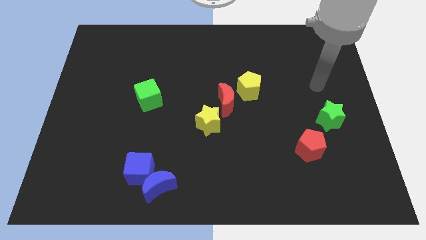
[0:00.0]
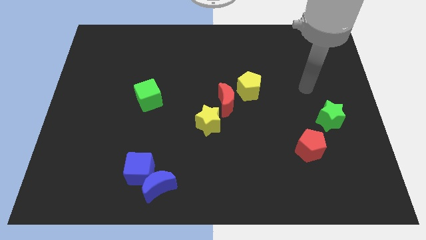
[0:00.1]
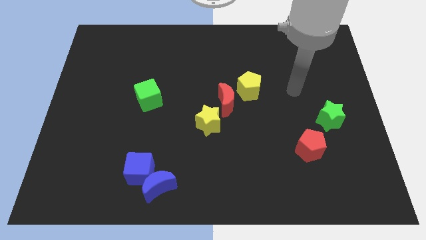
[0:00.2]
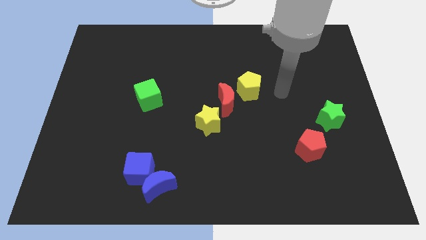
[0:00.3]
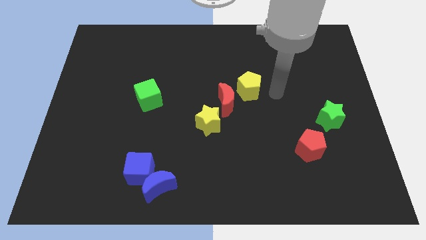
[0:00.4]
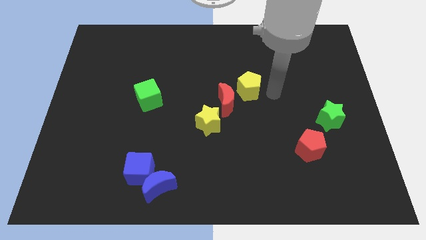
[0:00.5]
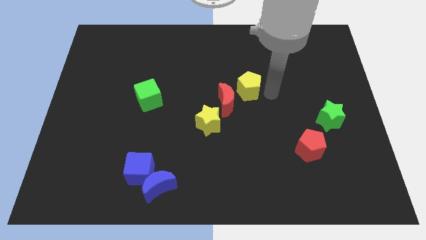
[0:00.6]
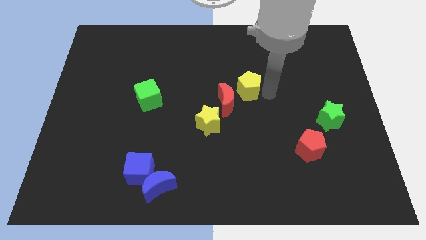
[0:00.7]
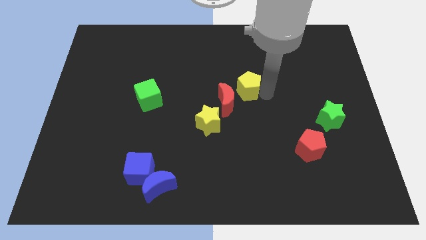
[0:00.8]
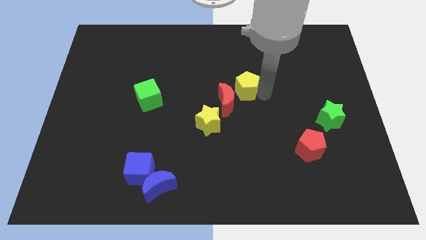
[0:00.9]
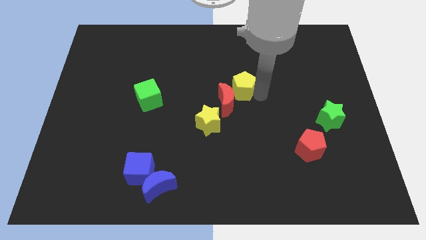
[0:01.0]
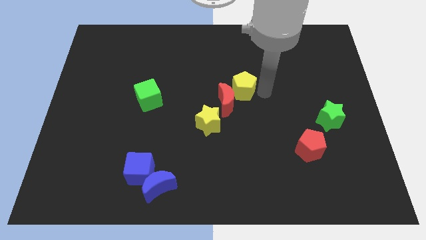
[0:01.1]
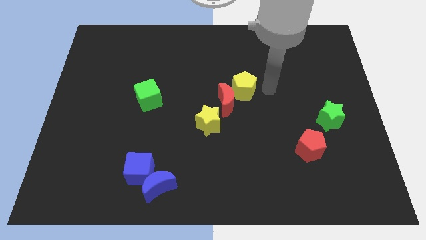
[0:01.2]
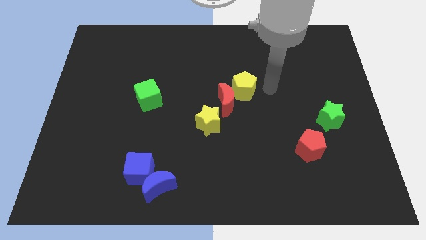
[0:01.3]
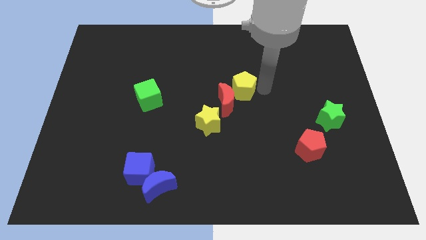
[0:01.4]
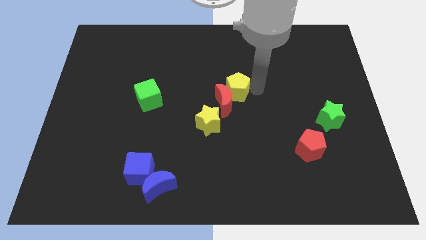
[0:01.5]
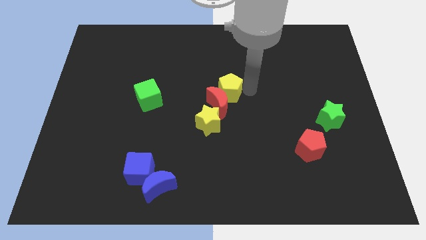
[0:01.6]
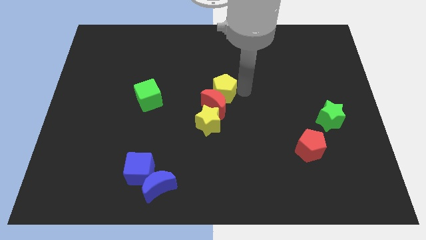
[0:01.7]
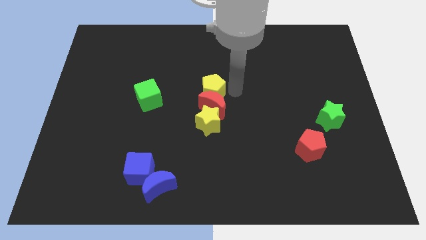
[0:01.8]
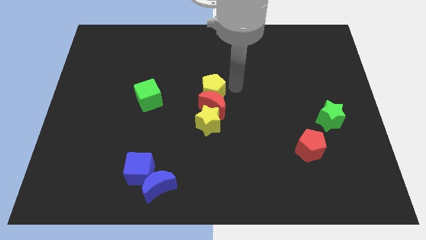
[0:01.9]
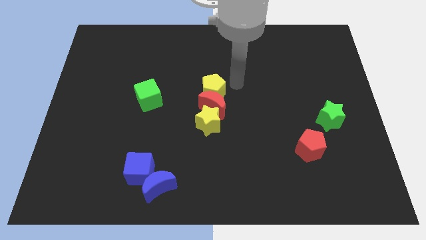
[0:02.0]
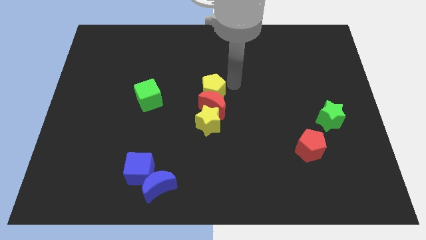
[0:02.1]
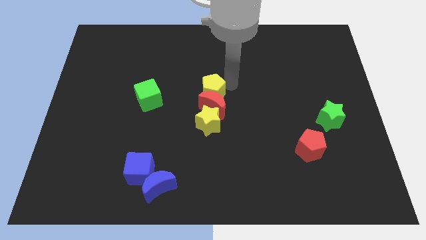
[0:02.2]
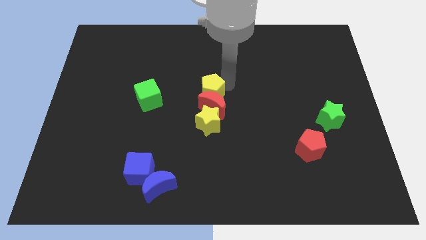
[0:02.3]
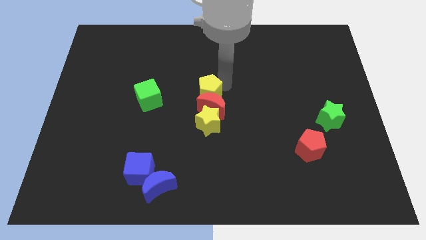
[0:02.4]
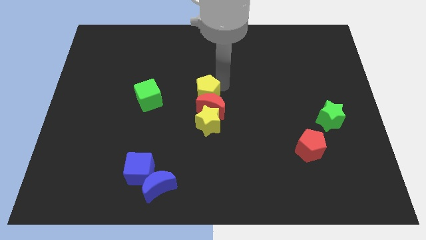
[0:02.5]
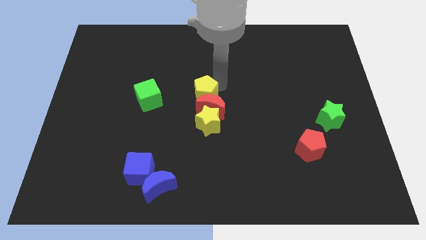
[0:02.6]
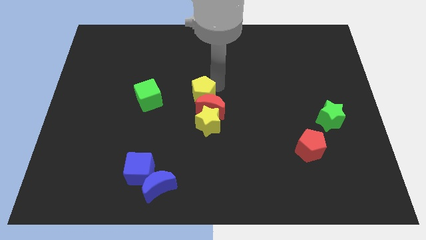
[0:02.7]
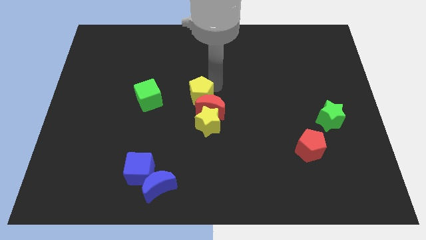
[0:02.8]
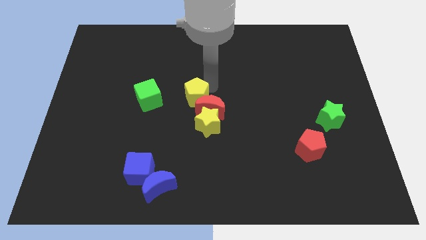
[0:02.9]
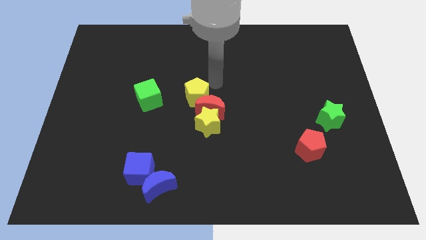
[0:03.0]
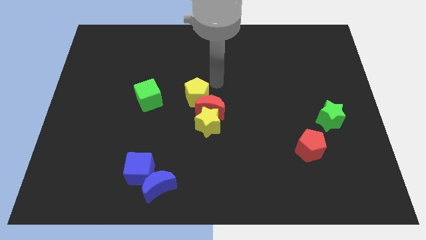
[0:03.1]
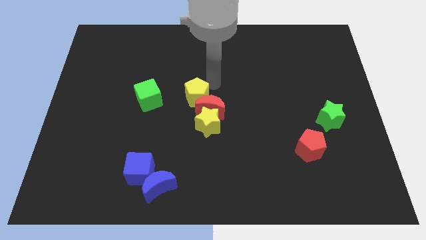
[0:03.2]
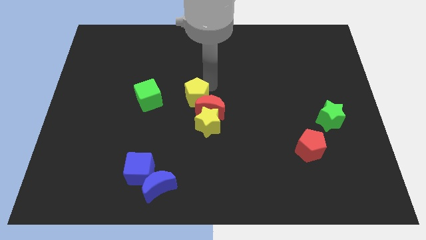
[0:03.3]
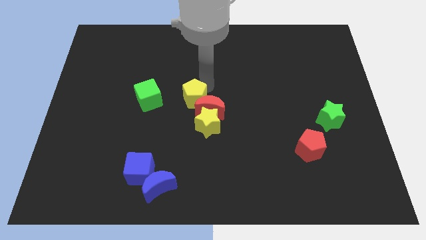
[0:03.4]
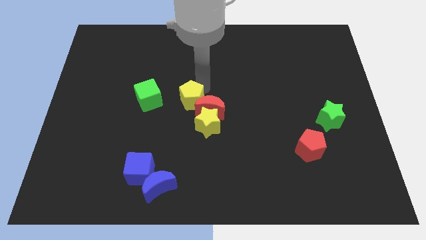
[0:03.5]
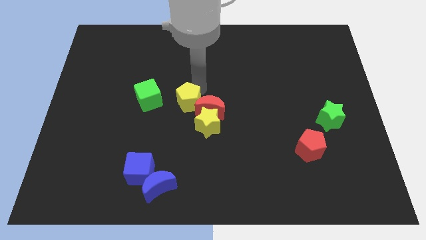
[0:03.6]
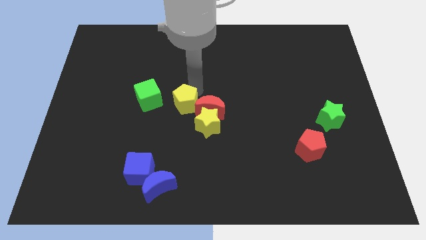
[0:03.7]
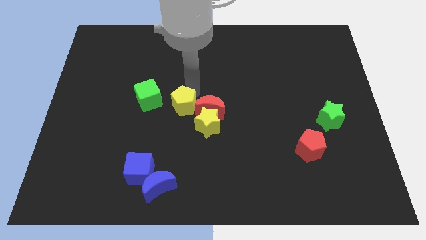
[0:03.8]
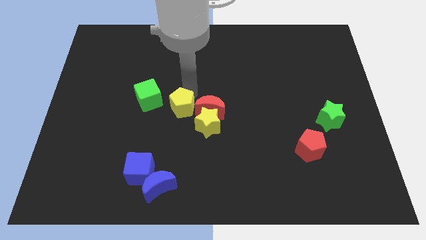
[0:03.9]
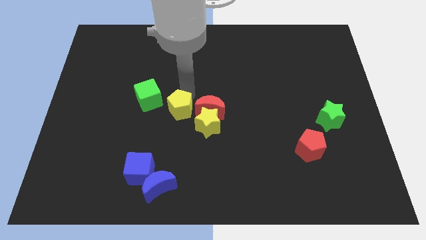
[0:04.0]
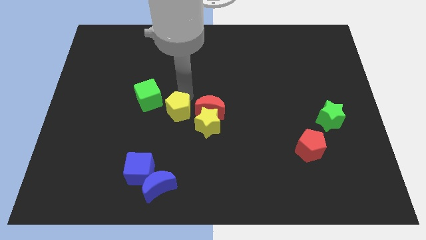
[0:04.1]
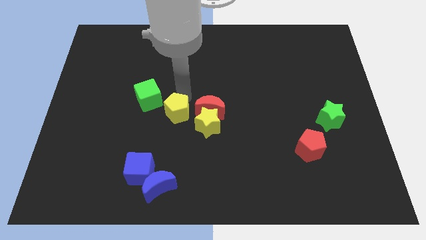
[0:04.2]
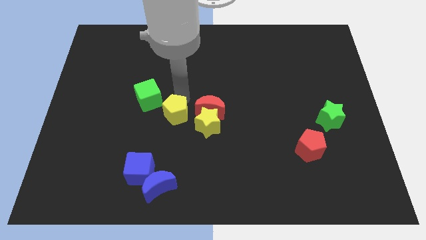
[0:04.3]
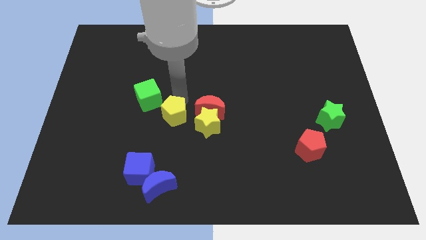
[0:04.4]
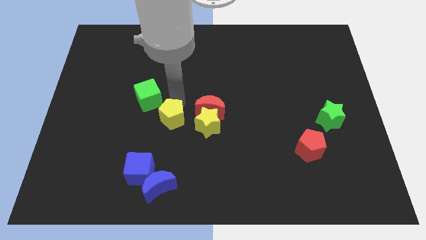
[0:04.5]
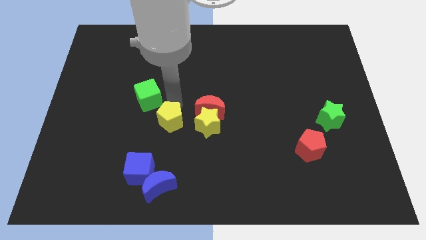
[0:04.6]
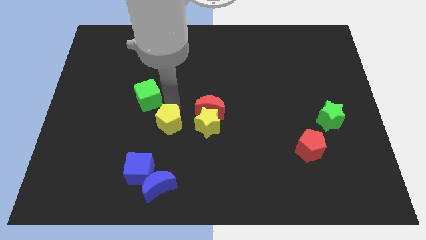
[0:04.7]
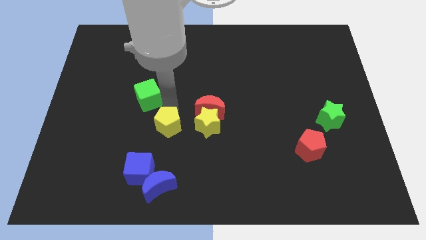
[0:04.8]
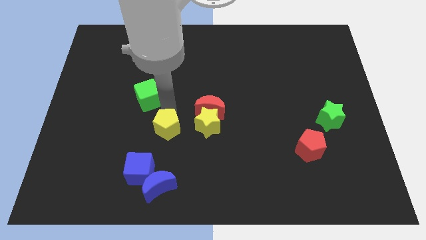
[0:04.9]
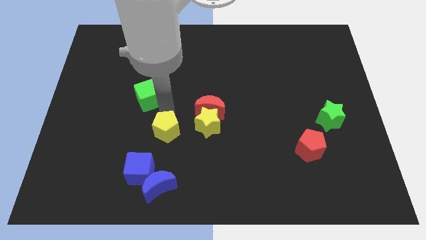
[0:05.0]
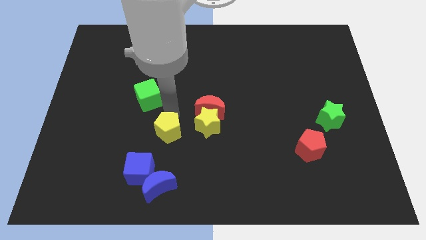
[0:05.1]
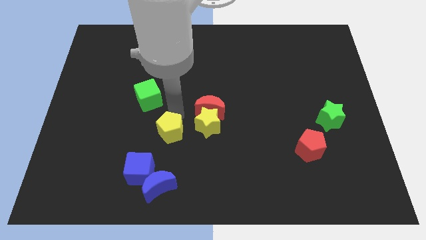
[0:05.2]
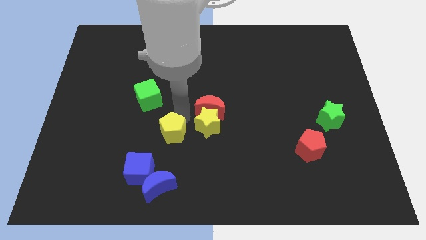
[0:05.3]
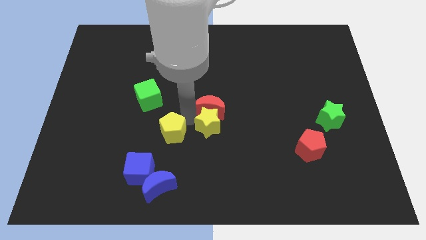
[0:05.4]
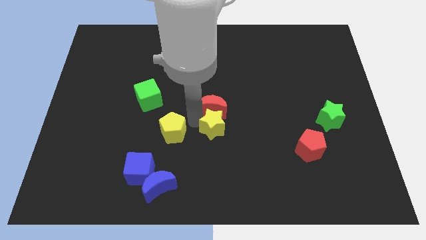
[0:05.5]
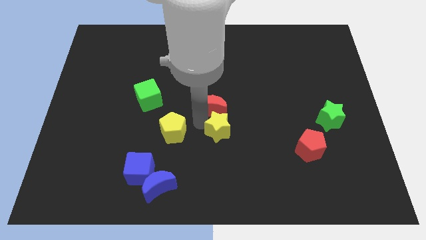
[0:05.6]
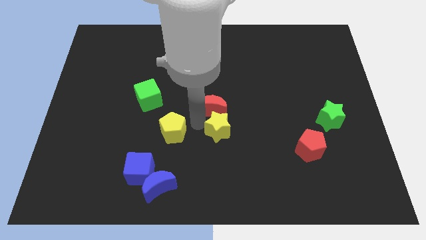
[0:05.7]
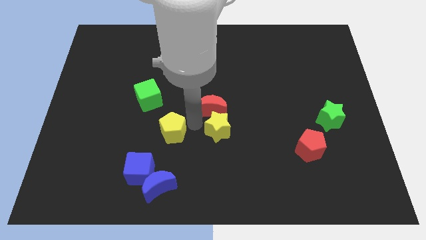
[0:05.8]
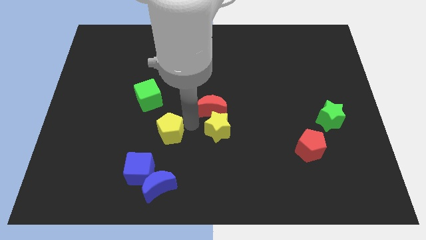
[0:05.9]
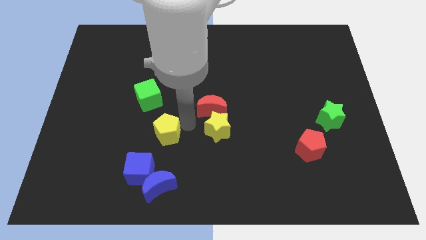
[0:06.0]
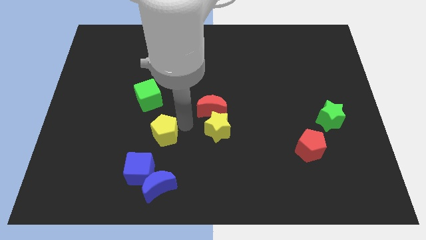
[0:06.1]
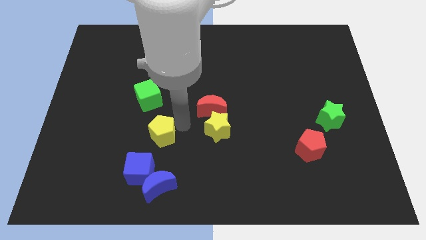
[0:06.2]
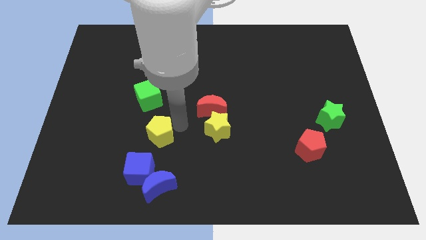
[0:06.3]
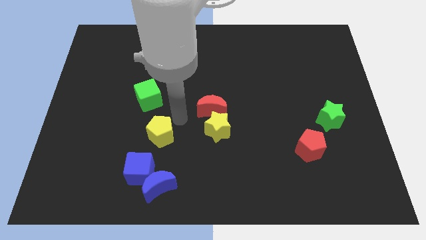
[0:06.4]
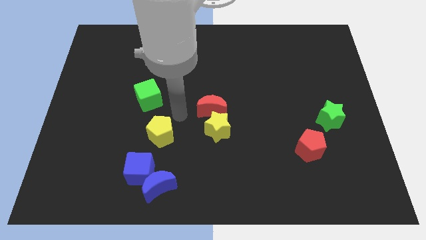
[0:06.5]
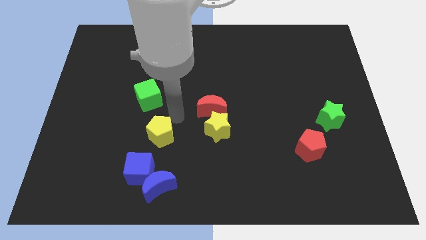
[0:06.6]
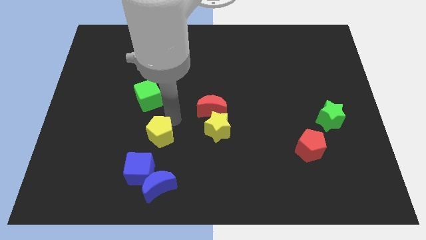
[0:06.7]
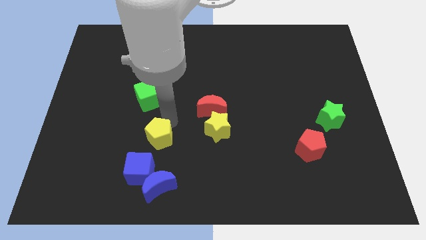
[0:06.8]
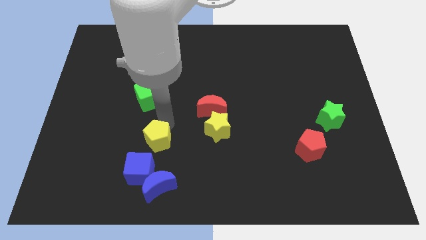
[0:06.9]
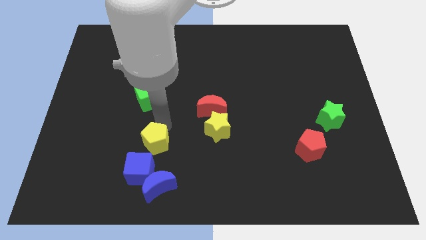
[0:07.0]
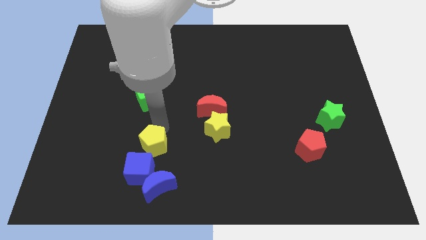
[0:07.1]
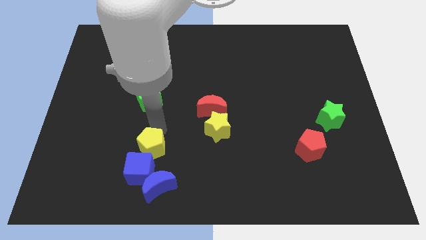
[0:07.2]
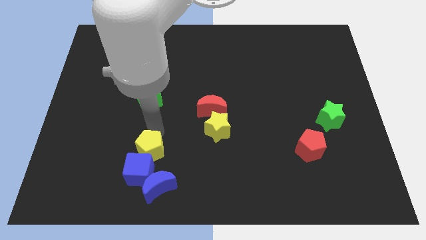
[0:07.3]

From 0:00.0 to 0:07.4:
push the yellow pentagon to the top left of the blue moon
